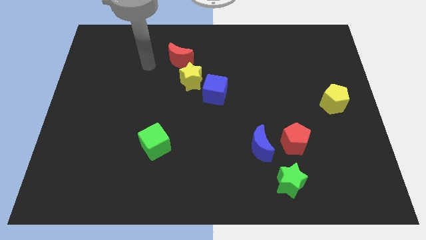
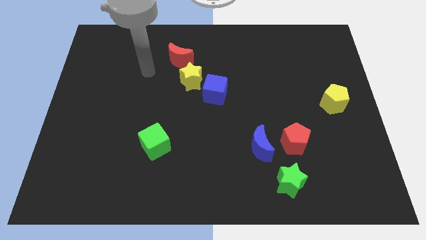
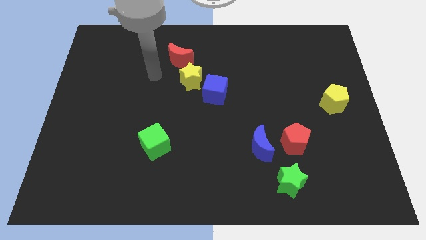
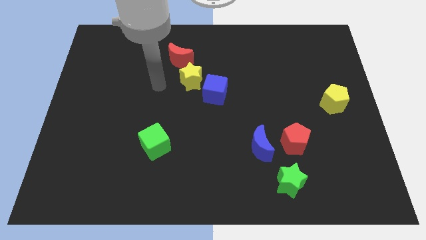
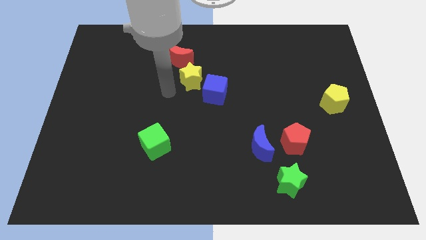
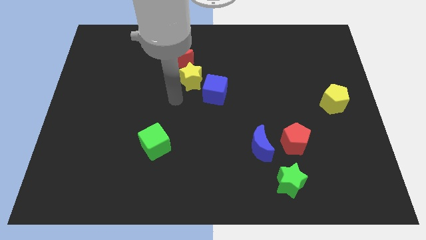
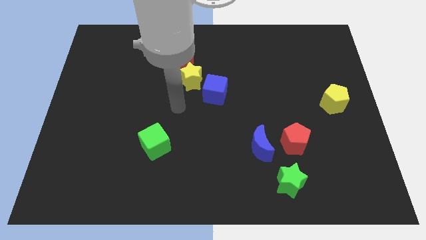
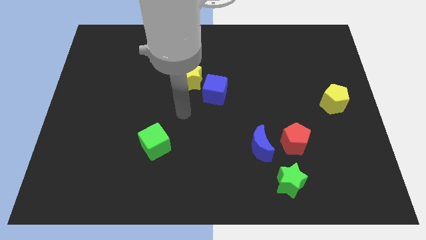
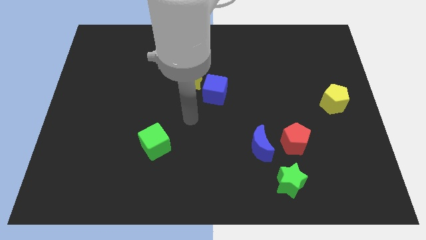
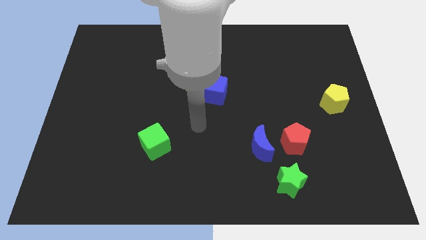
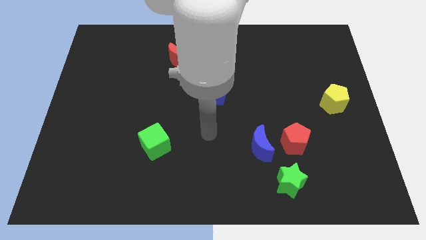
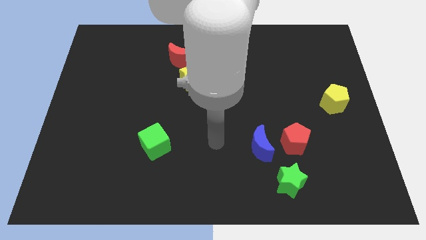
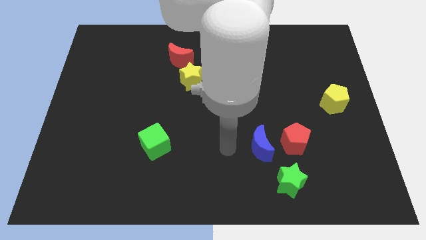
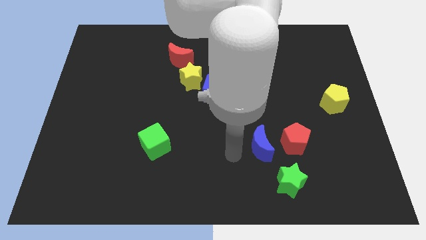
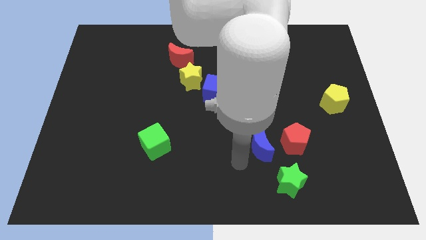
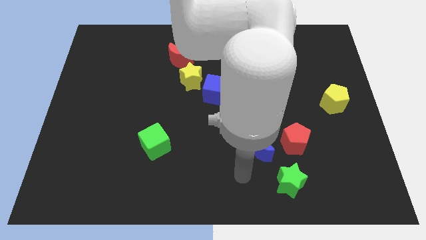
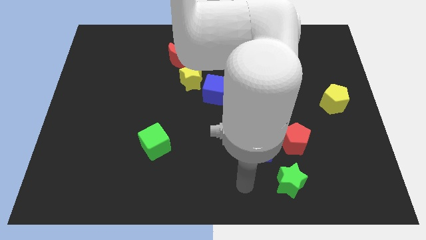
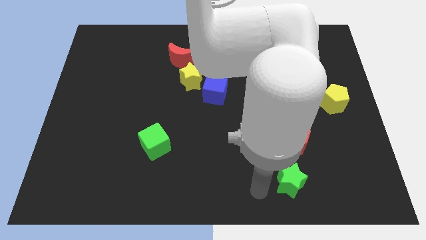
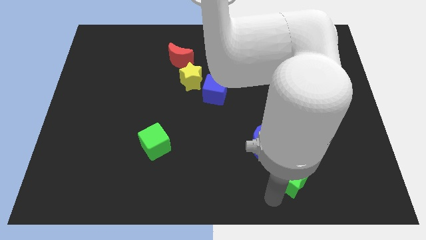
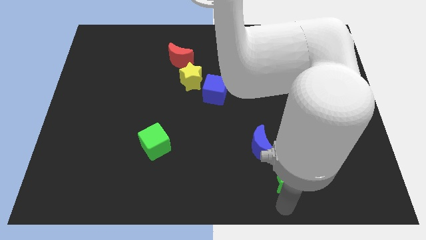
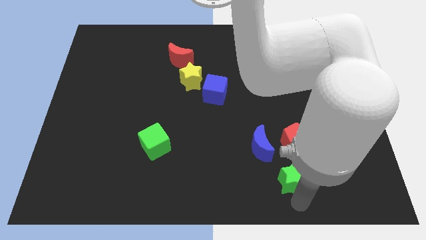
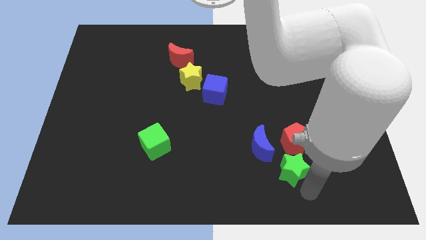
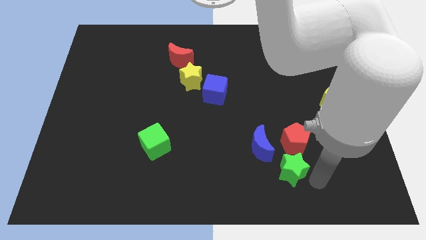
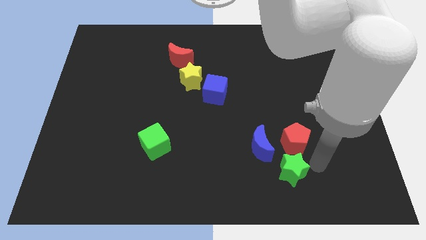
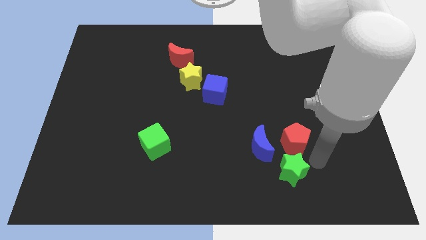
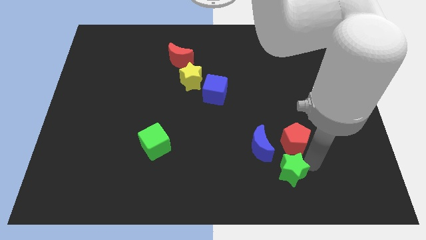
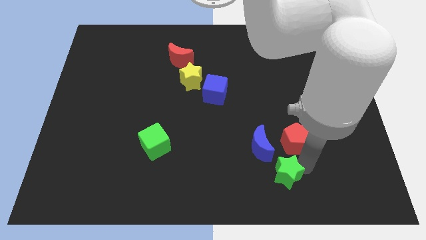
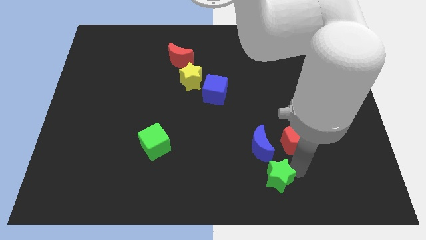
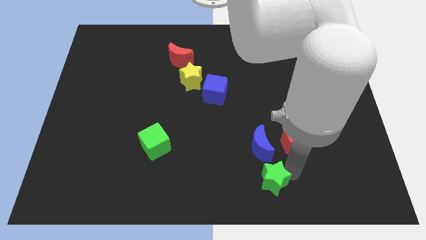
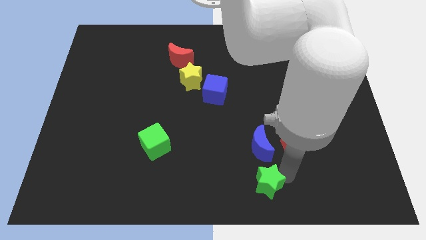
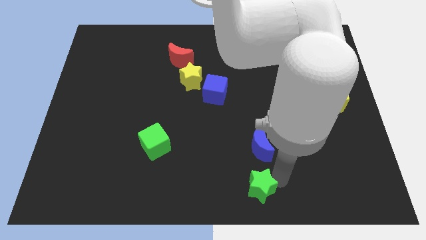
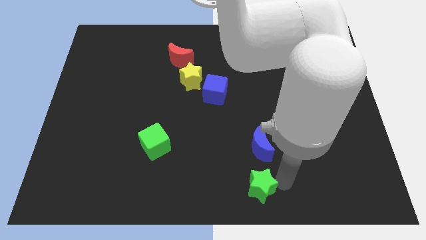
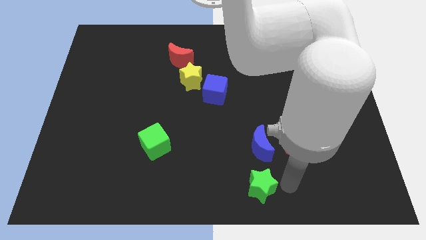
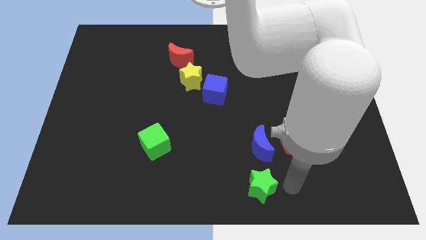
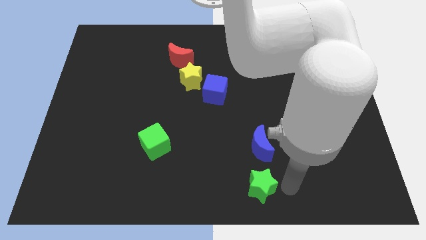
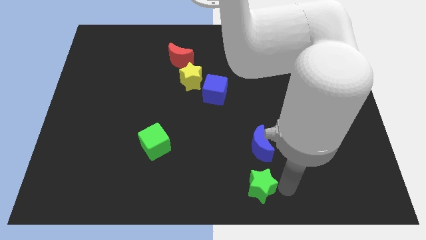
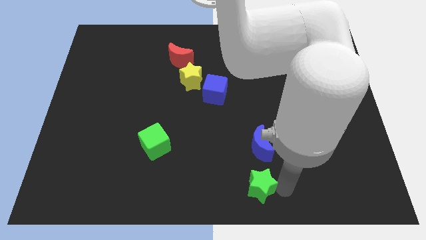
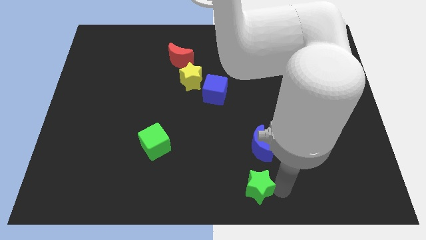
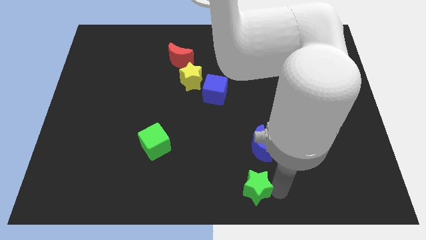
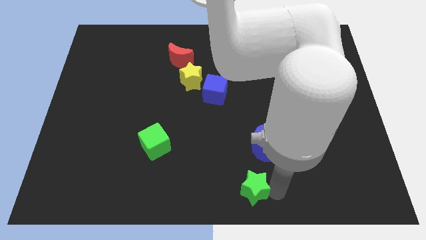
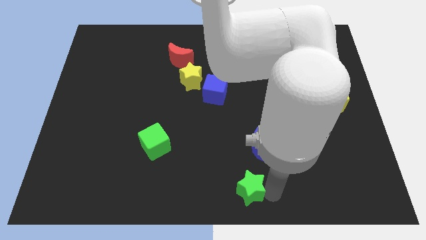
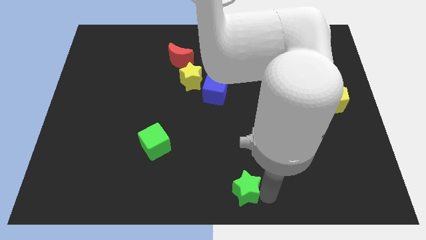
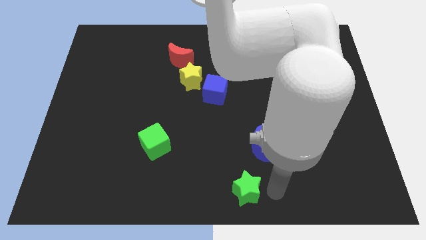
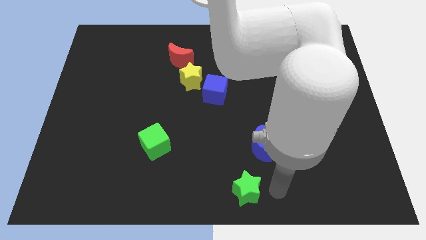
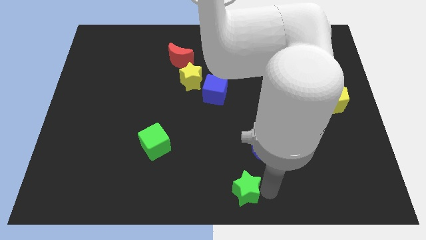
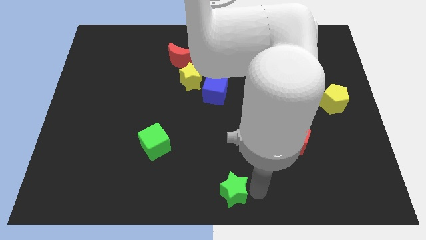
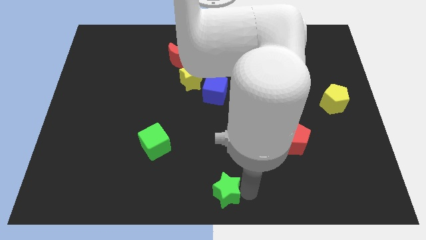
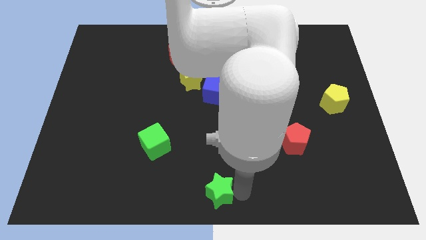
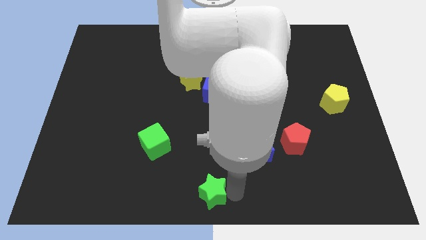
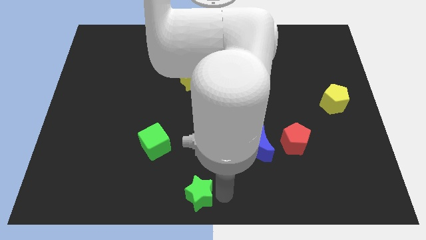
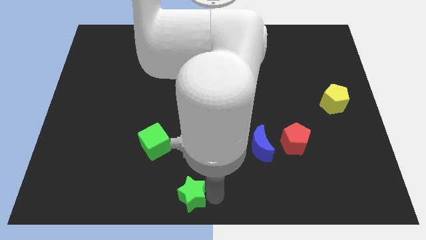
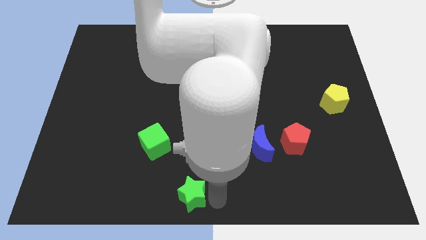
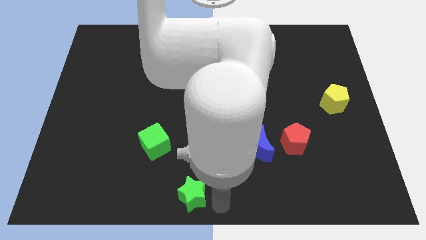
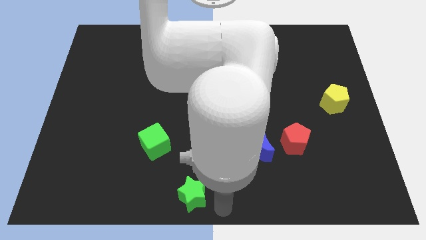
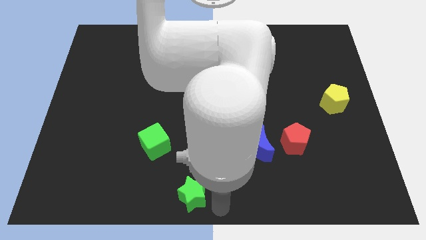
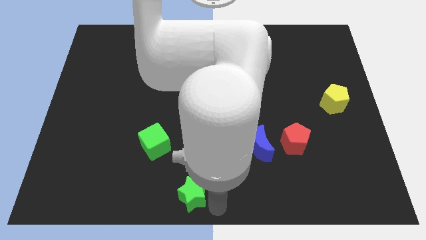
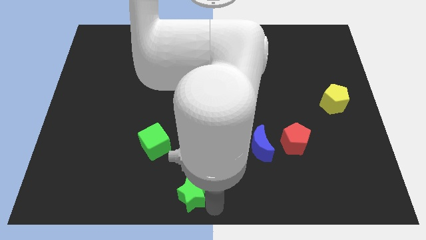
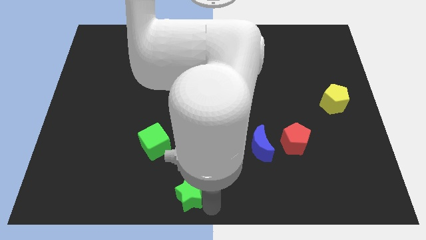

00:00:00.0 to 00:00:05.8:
push the green star to the left

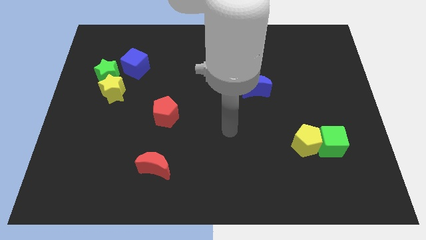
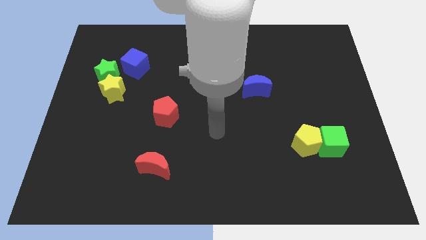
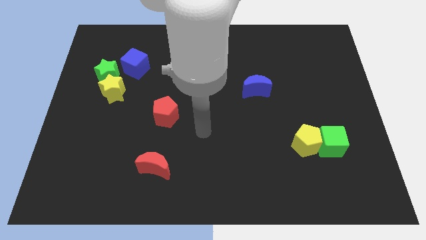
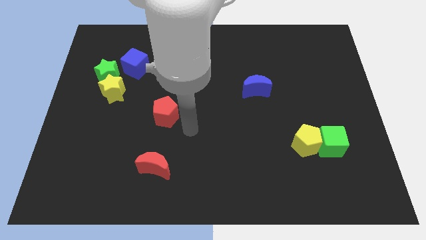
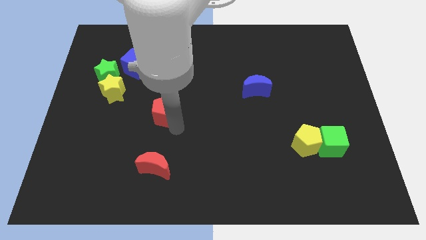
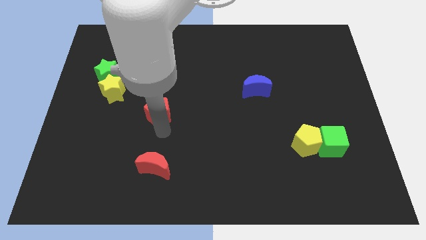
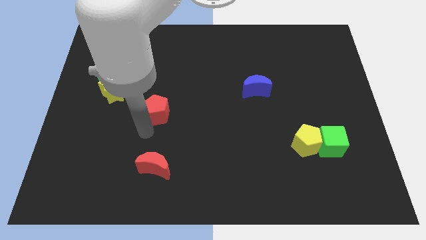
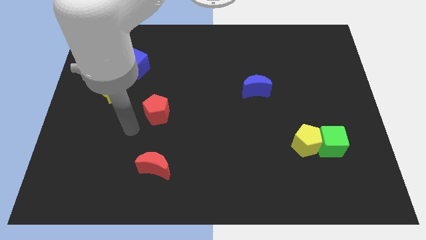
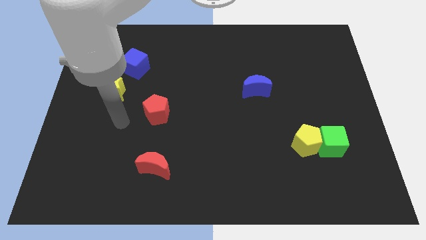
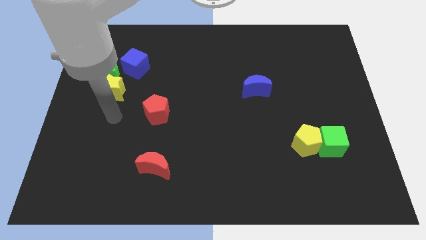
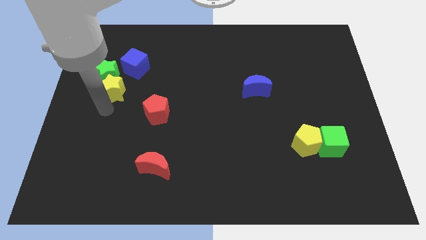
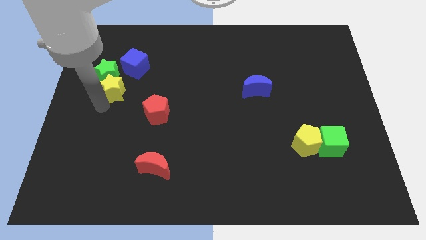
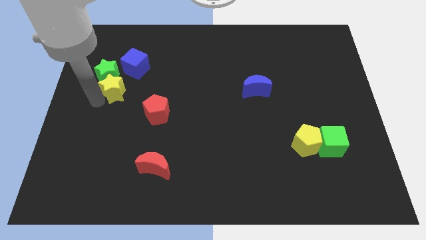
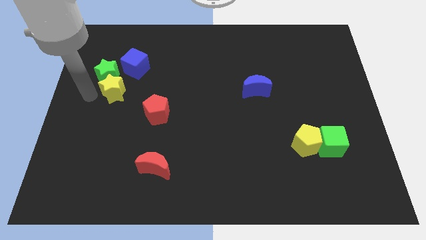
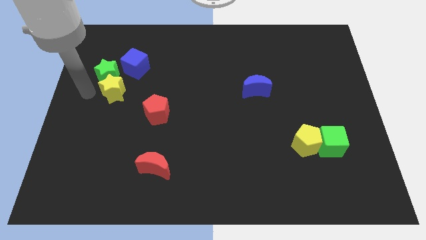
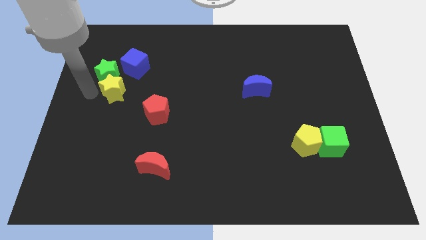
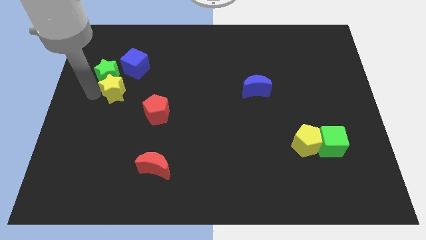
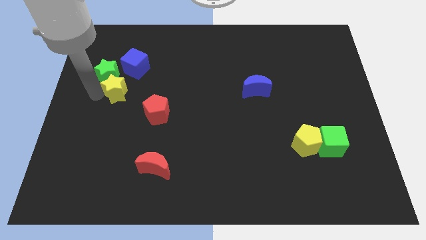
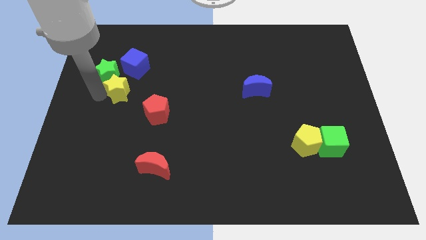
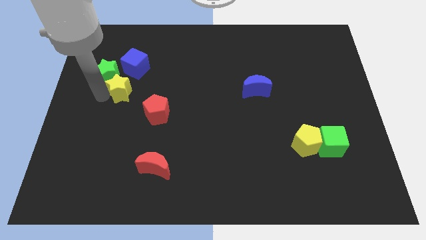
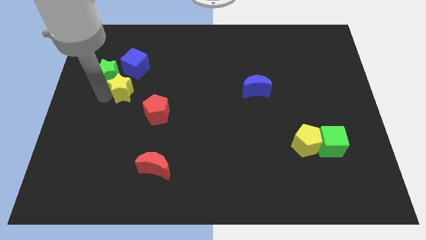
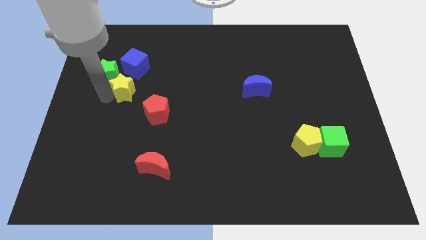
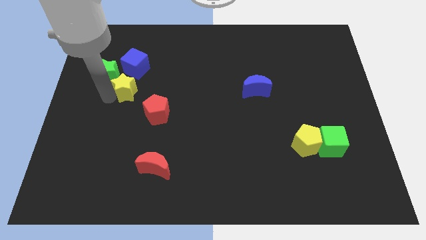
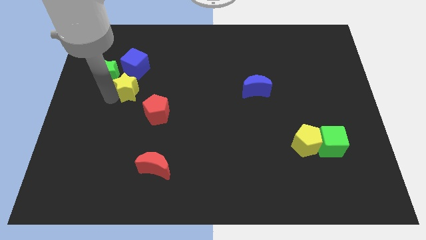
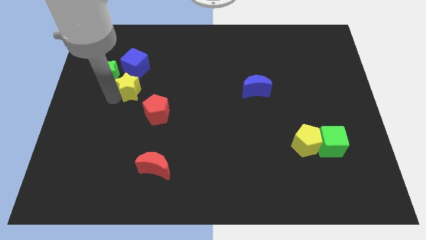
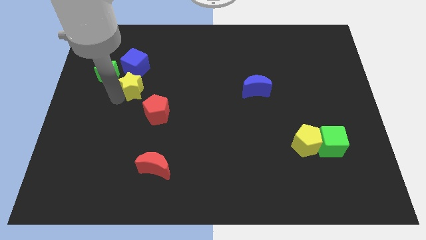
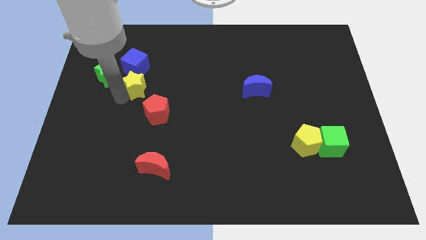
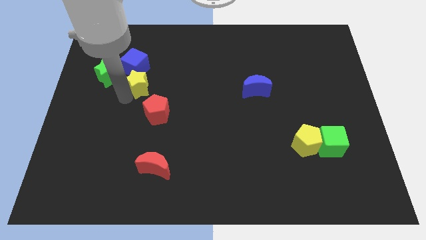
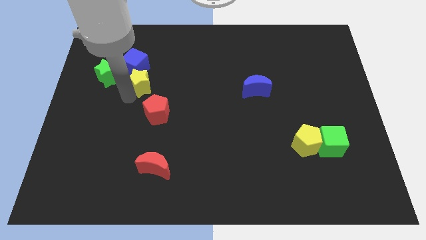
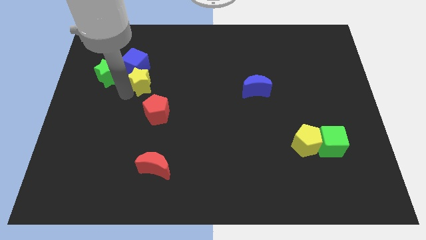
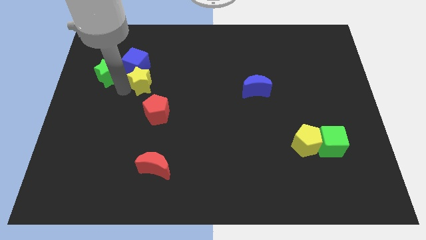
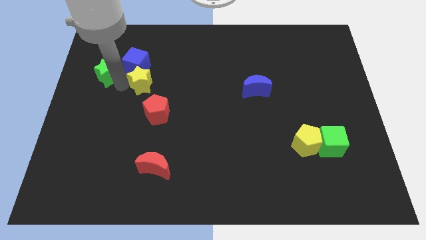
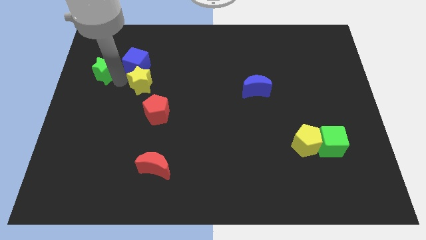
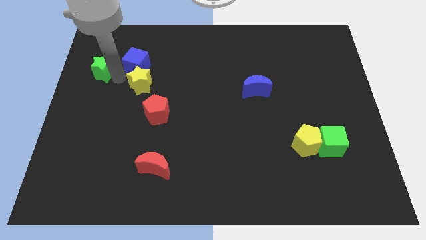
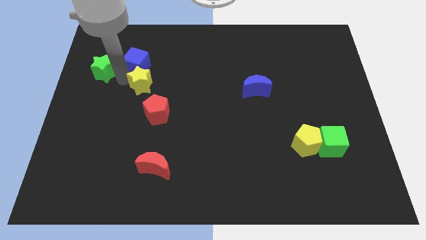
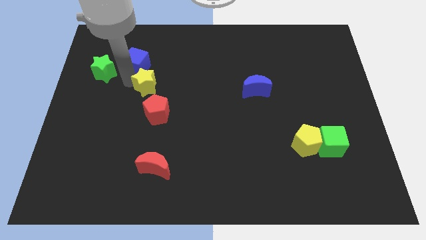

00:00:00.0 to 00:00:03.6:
move the yellow star somewhat right
